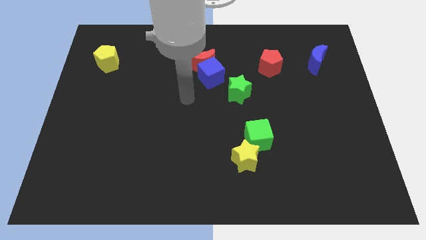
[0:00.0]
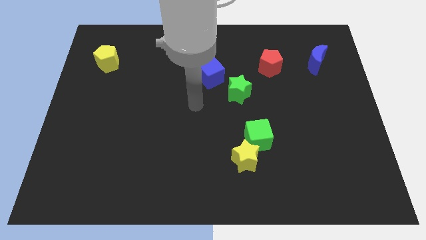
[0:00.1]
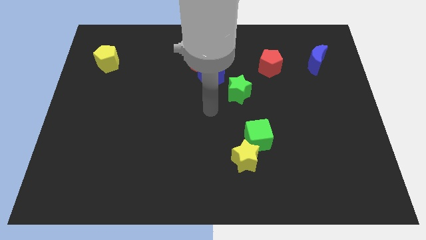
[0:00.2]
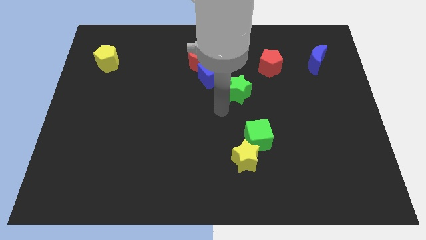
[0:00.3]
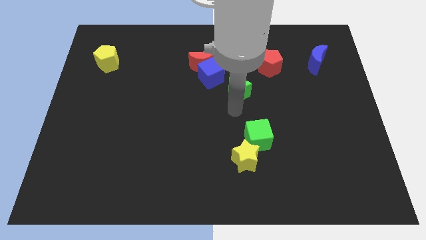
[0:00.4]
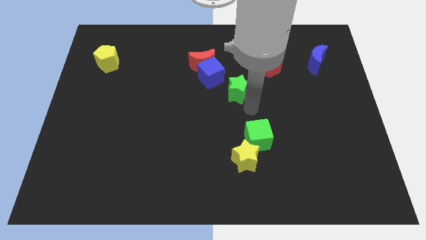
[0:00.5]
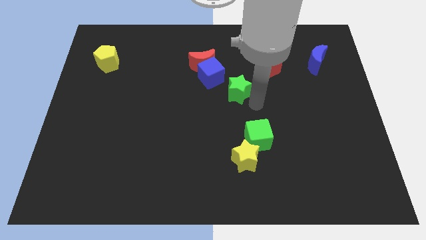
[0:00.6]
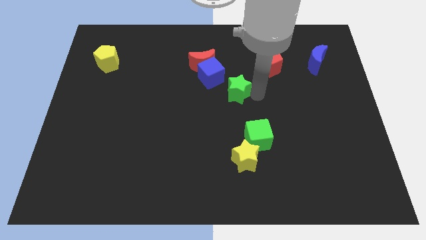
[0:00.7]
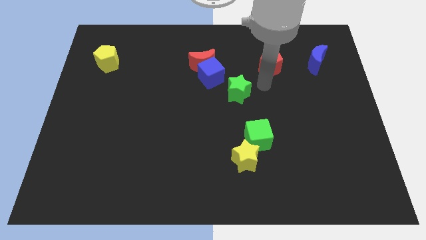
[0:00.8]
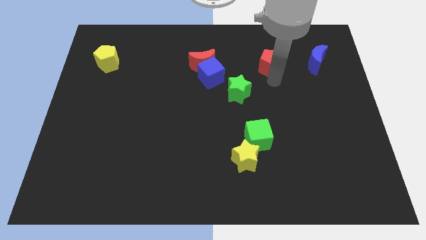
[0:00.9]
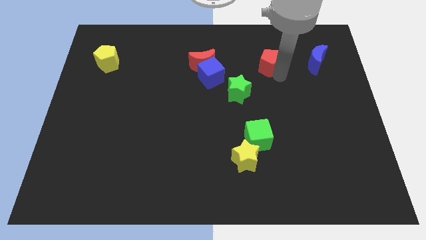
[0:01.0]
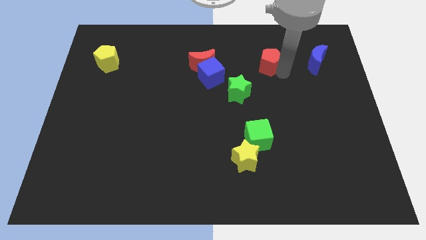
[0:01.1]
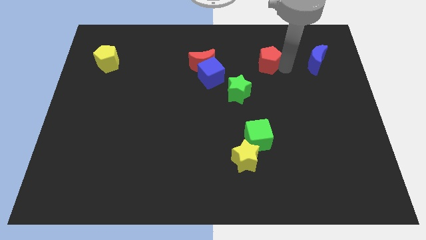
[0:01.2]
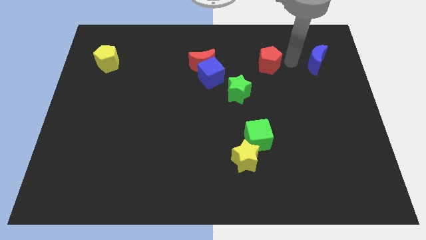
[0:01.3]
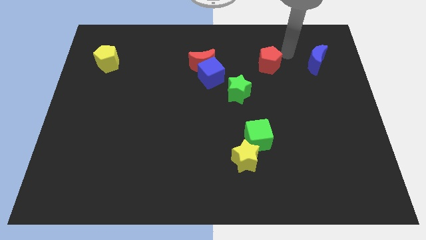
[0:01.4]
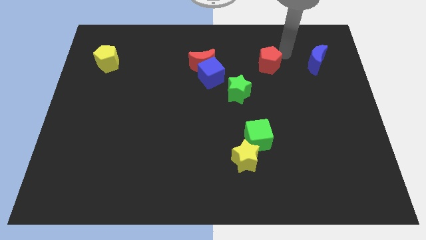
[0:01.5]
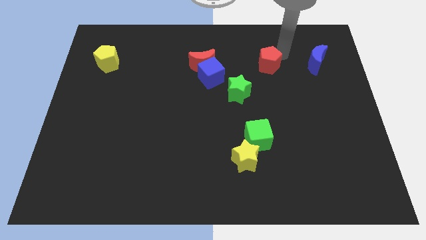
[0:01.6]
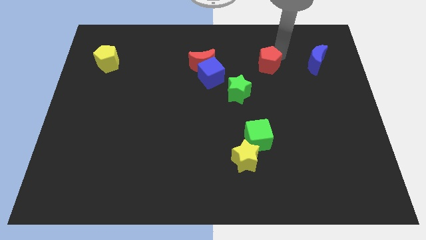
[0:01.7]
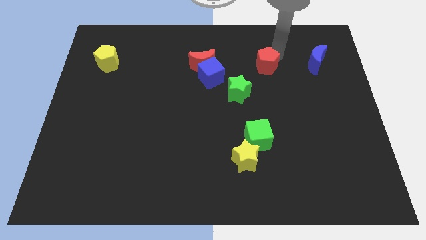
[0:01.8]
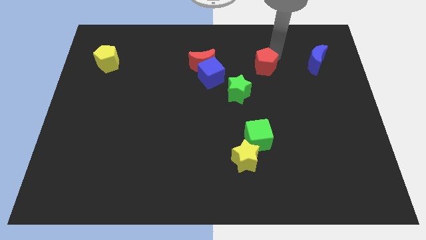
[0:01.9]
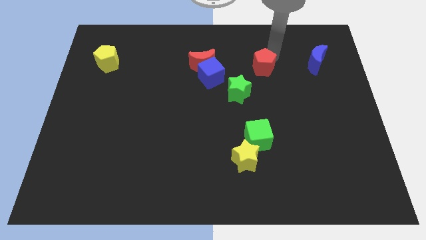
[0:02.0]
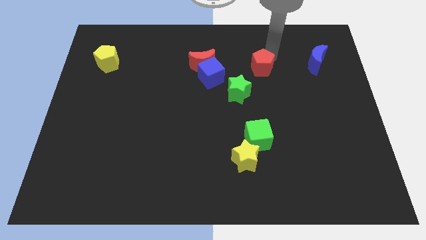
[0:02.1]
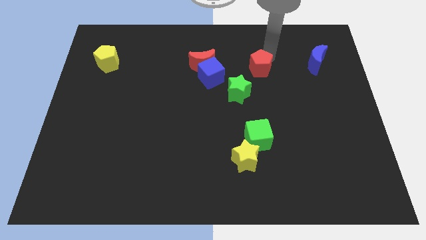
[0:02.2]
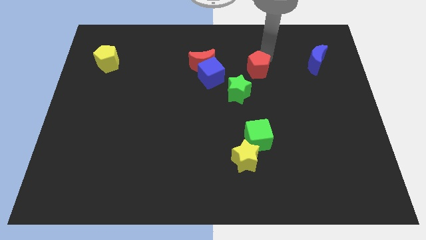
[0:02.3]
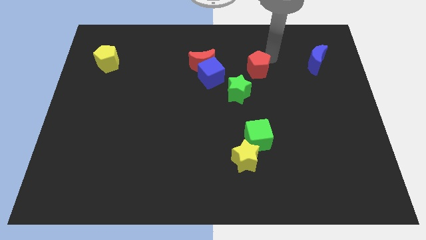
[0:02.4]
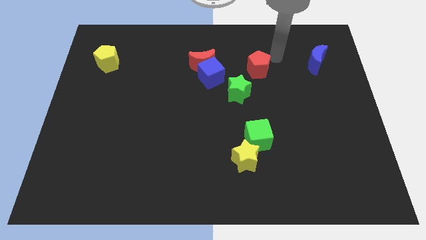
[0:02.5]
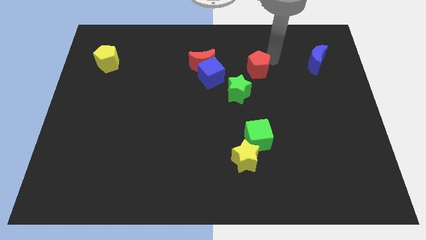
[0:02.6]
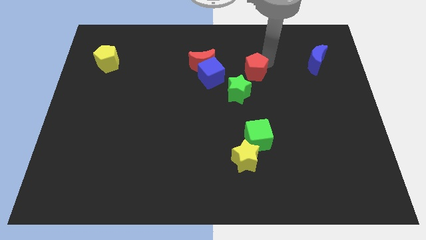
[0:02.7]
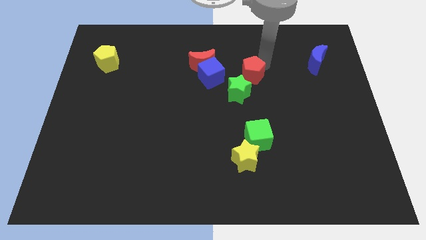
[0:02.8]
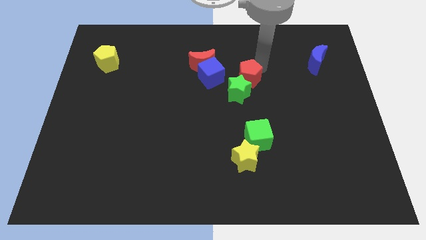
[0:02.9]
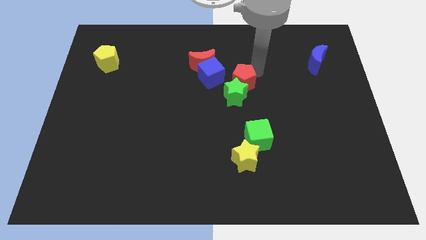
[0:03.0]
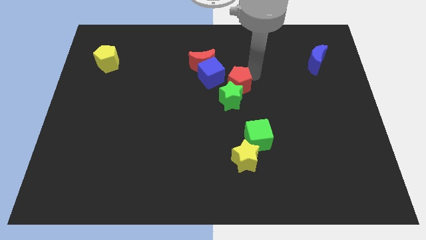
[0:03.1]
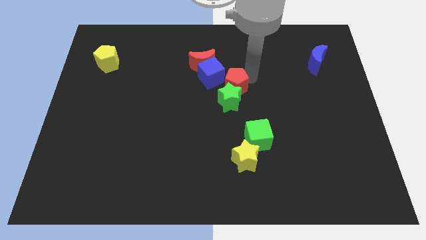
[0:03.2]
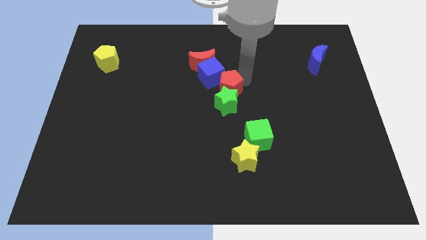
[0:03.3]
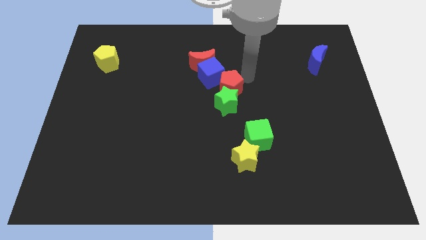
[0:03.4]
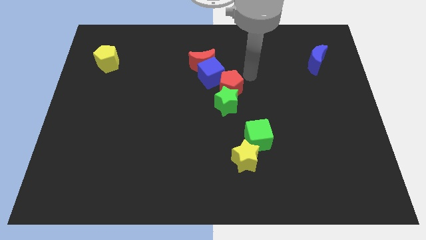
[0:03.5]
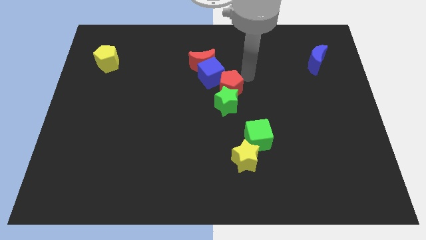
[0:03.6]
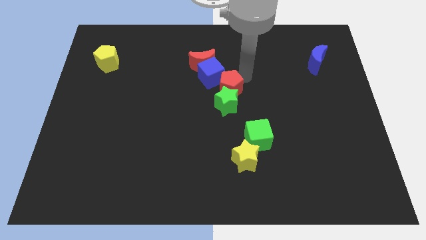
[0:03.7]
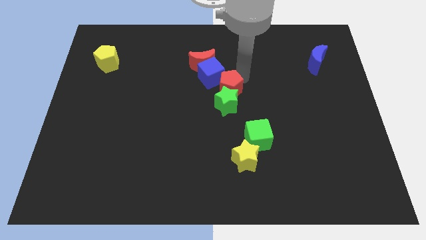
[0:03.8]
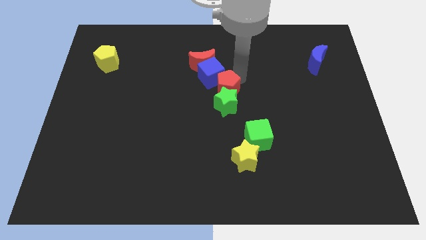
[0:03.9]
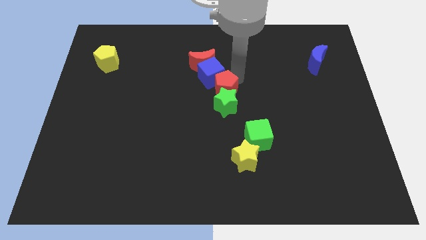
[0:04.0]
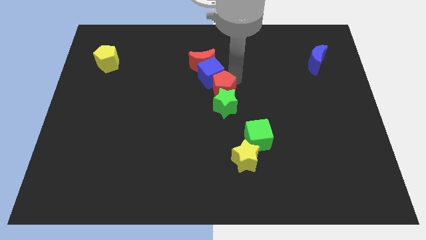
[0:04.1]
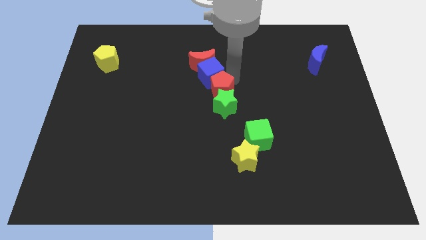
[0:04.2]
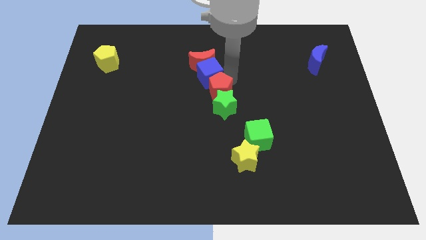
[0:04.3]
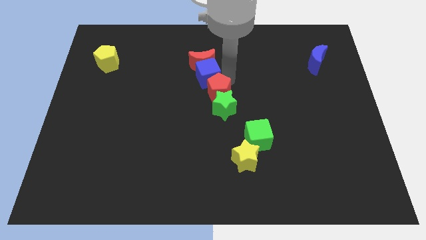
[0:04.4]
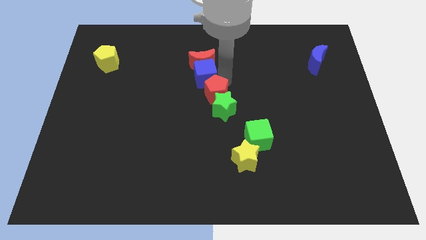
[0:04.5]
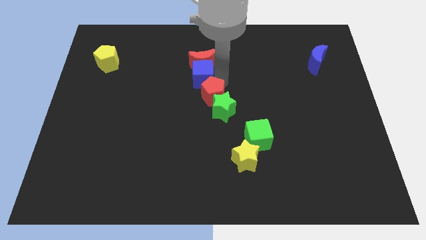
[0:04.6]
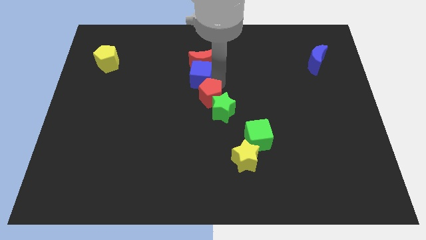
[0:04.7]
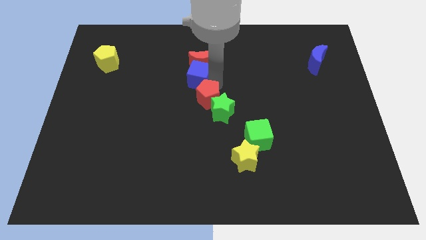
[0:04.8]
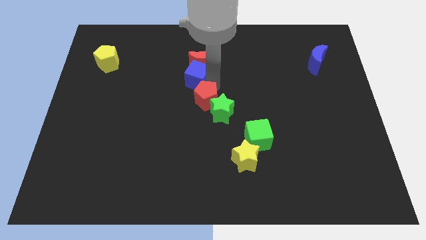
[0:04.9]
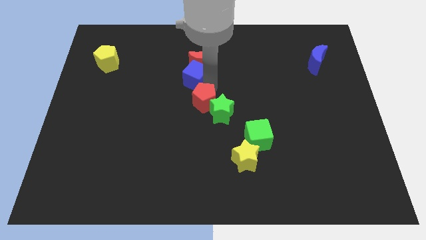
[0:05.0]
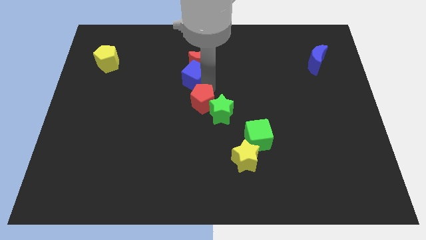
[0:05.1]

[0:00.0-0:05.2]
slide the red pentagon down and to the left diagonally

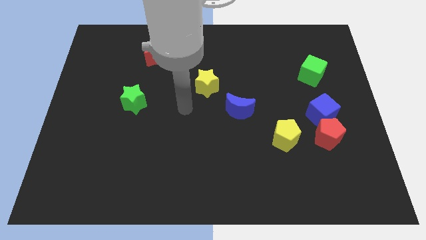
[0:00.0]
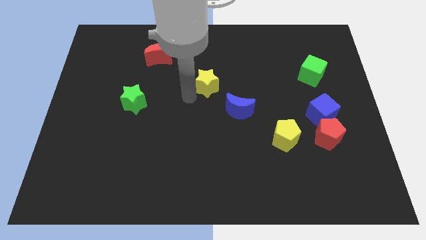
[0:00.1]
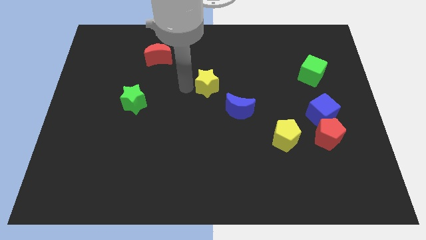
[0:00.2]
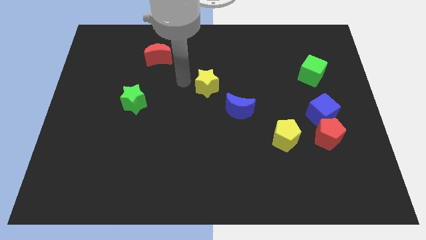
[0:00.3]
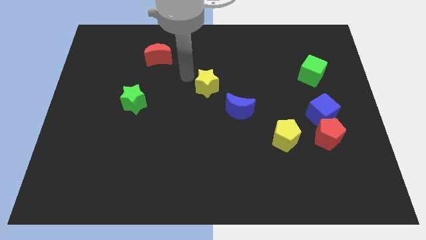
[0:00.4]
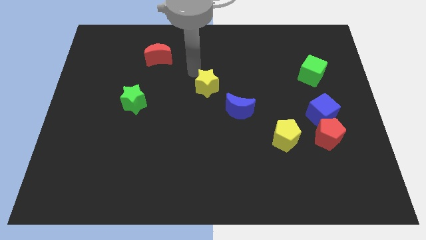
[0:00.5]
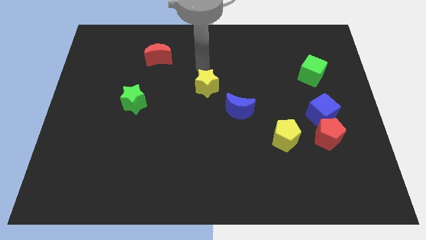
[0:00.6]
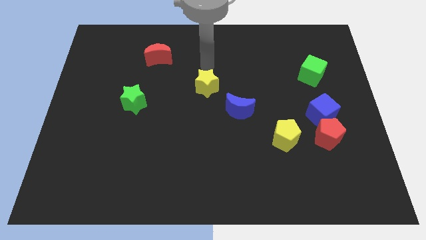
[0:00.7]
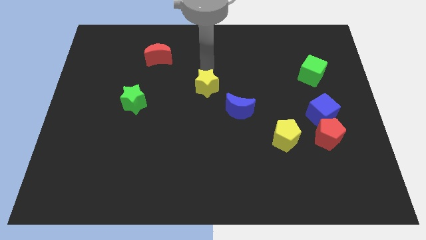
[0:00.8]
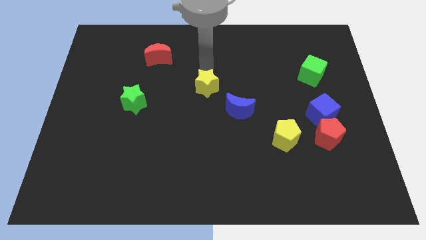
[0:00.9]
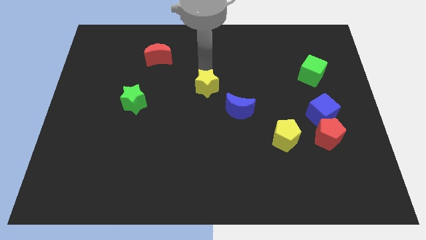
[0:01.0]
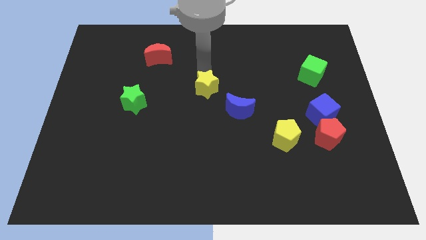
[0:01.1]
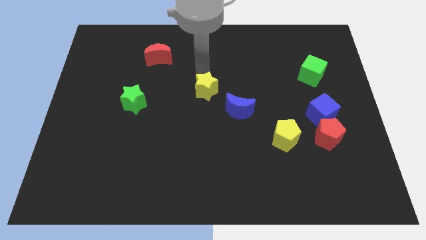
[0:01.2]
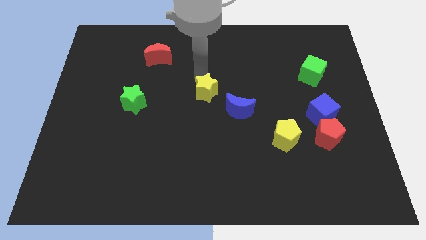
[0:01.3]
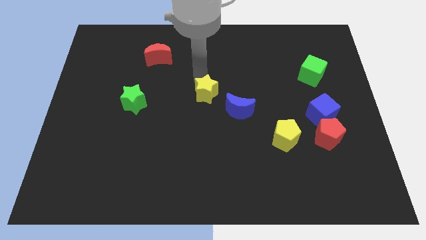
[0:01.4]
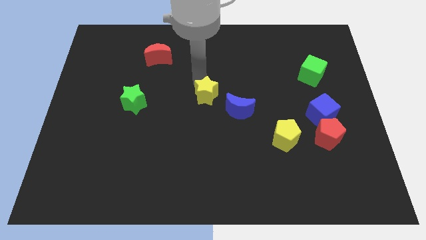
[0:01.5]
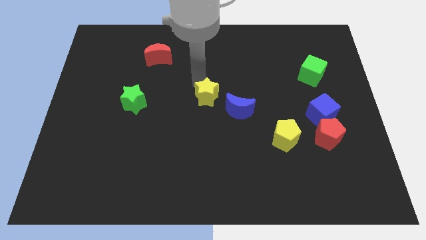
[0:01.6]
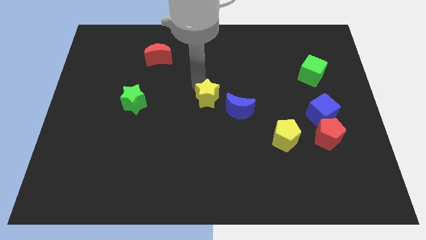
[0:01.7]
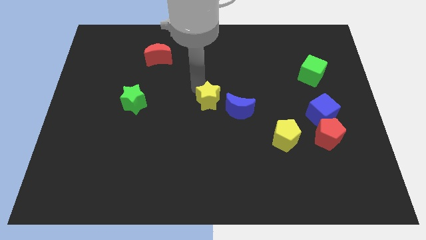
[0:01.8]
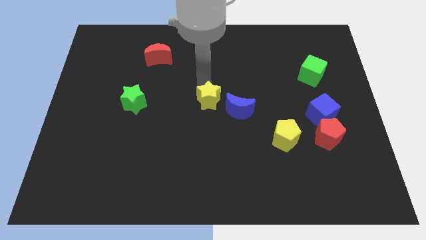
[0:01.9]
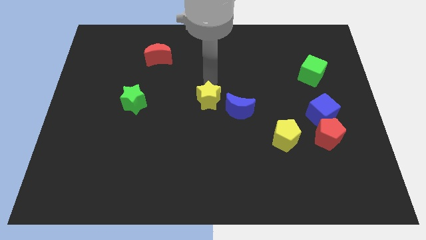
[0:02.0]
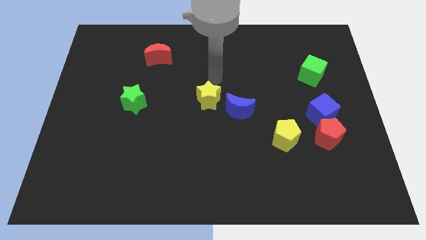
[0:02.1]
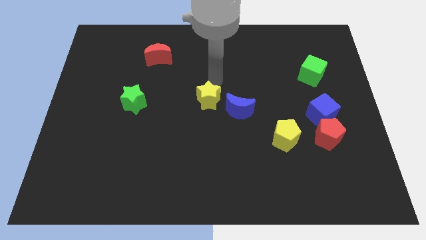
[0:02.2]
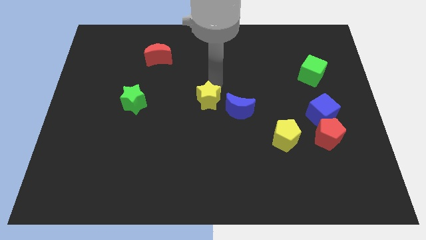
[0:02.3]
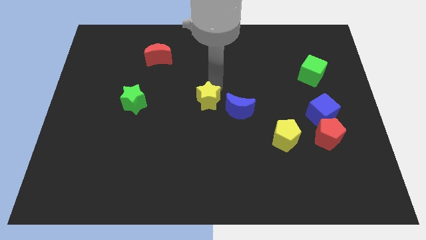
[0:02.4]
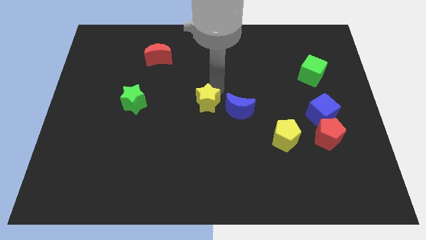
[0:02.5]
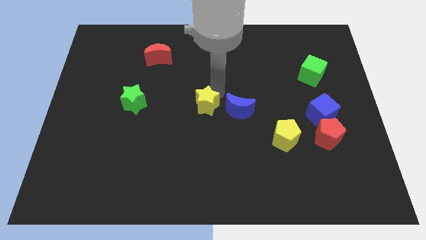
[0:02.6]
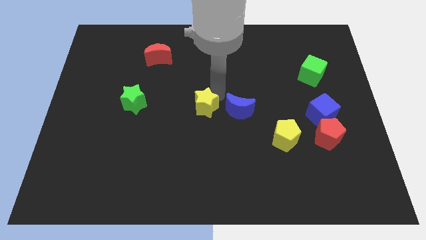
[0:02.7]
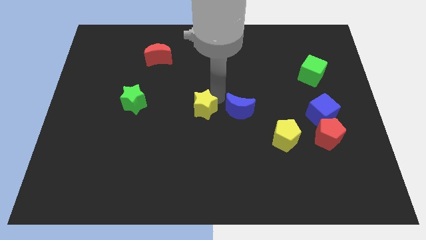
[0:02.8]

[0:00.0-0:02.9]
slide the yellow star slightly down

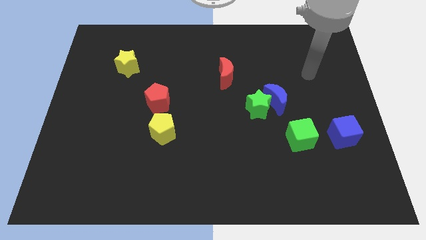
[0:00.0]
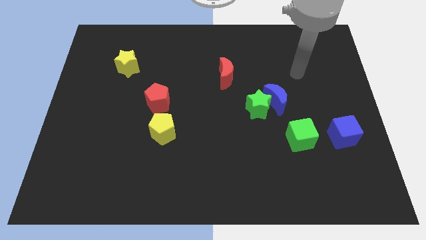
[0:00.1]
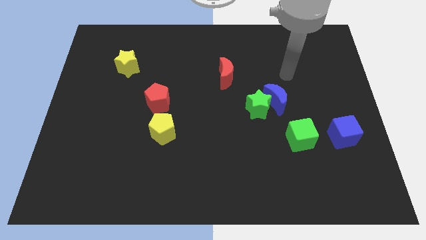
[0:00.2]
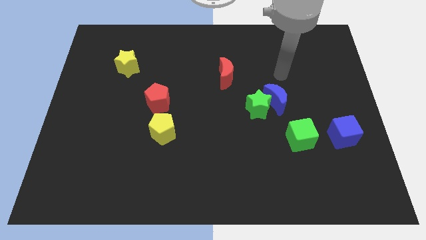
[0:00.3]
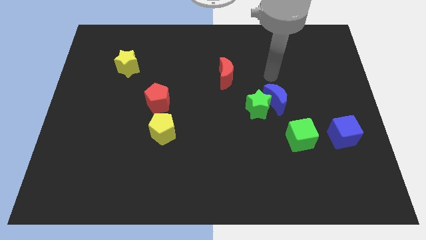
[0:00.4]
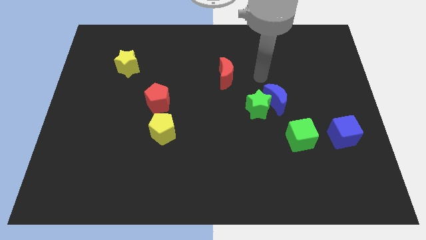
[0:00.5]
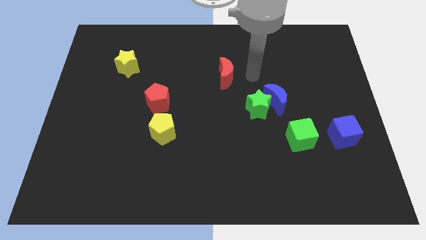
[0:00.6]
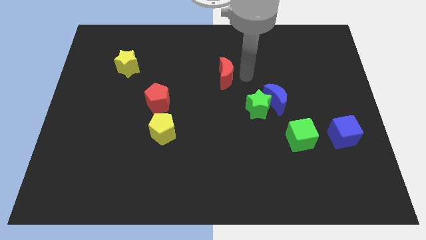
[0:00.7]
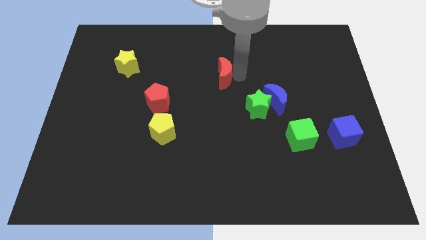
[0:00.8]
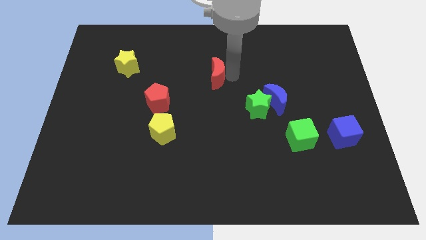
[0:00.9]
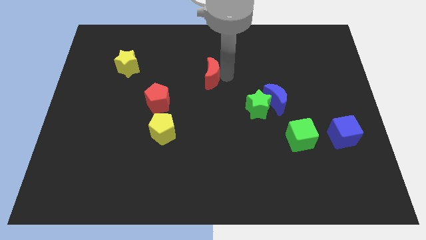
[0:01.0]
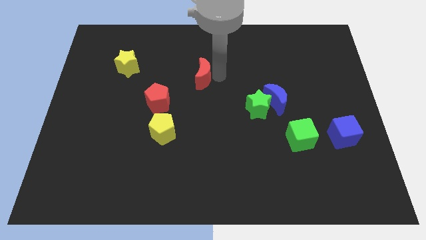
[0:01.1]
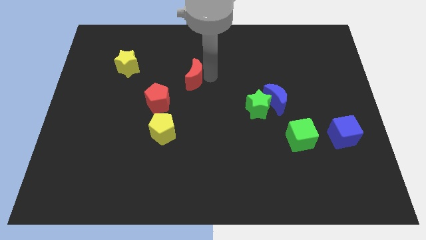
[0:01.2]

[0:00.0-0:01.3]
slightly slide the red moon left
